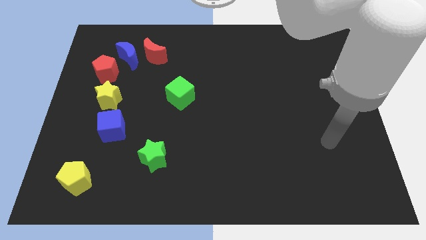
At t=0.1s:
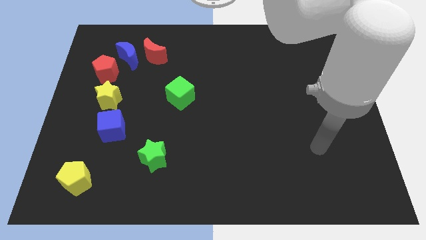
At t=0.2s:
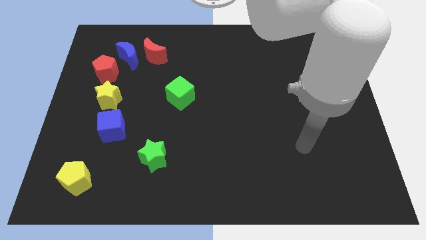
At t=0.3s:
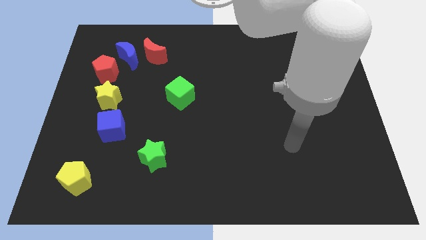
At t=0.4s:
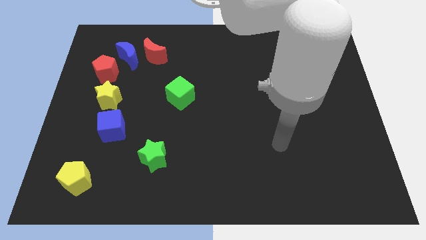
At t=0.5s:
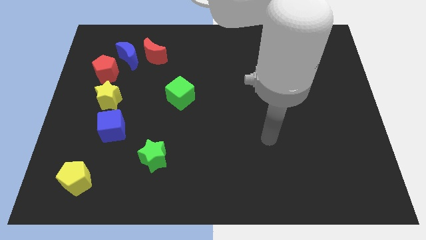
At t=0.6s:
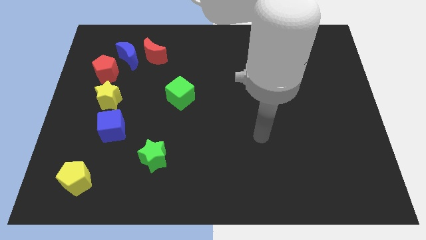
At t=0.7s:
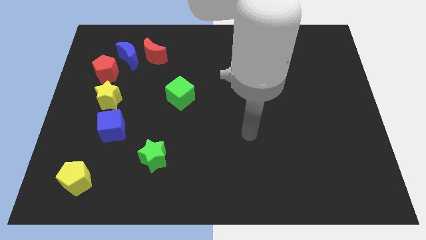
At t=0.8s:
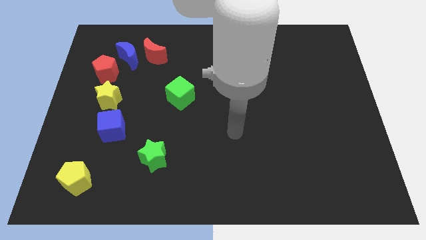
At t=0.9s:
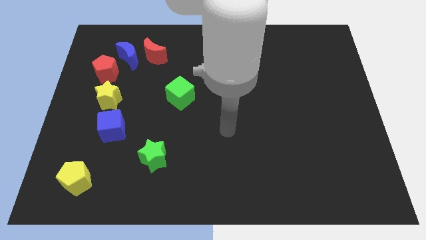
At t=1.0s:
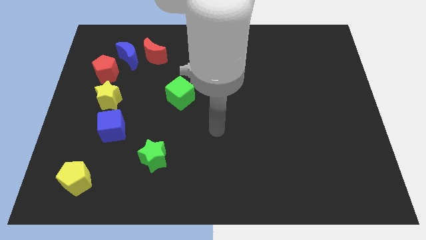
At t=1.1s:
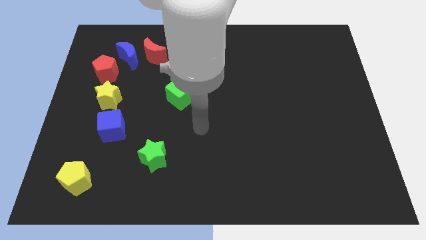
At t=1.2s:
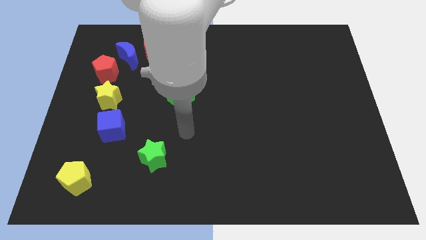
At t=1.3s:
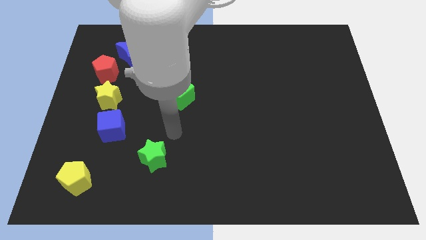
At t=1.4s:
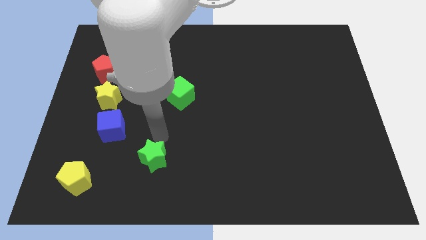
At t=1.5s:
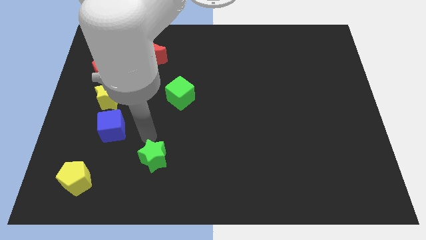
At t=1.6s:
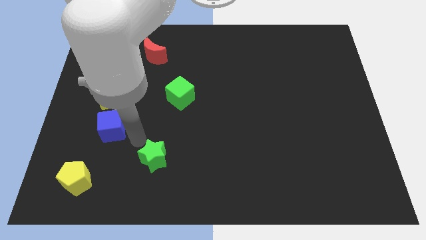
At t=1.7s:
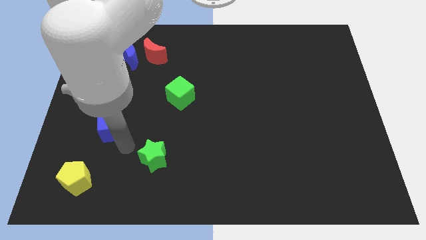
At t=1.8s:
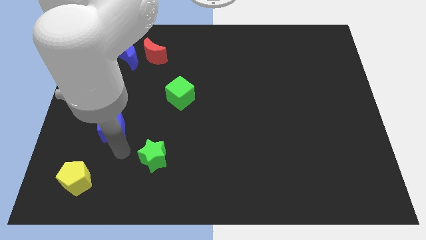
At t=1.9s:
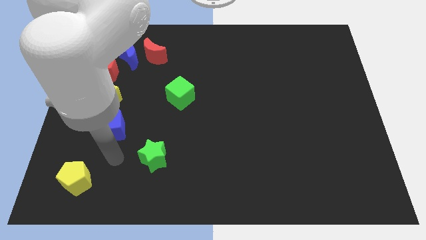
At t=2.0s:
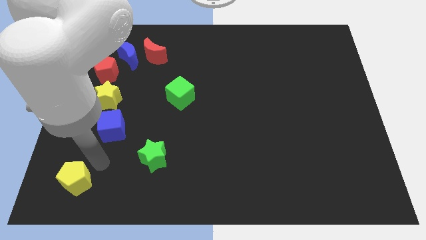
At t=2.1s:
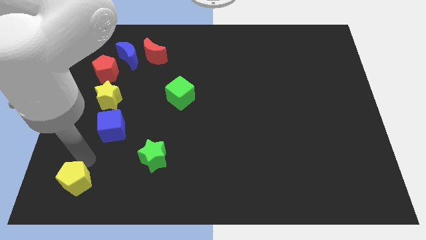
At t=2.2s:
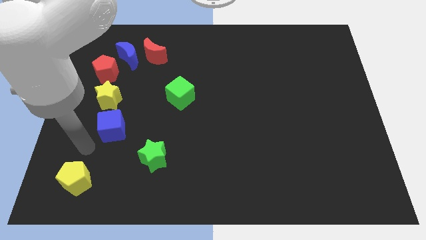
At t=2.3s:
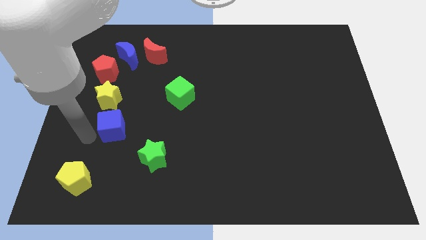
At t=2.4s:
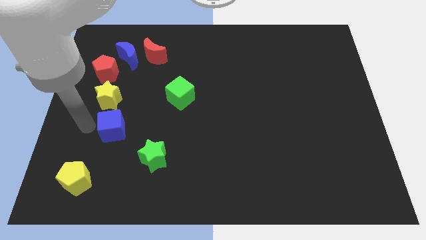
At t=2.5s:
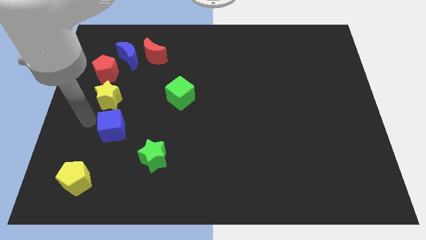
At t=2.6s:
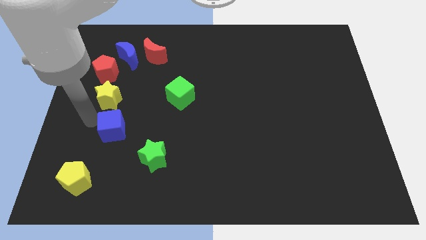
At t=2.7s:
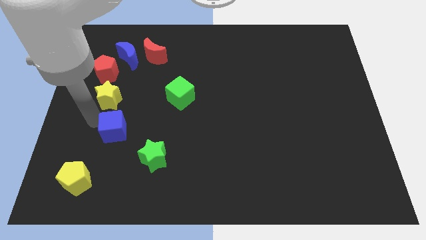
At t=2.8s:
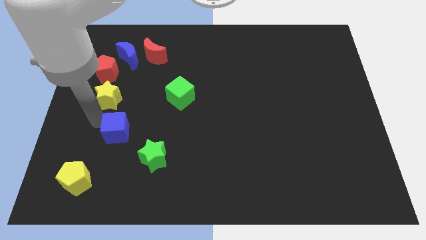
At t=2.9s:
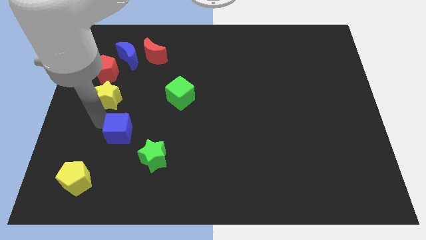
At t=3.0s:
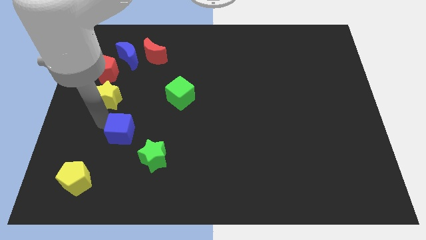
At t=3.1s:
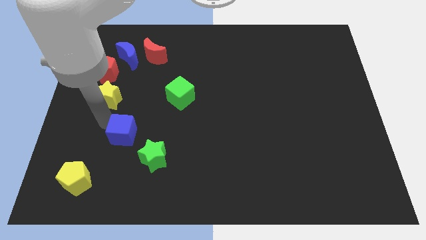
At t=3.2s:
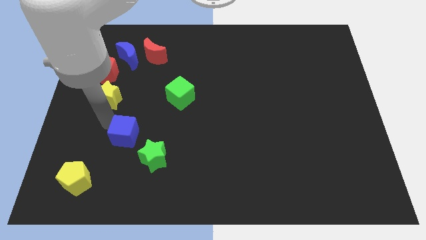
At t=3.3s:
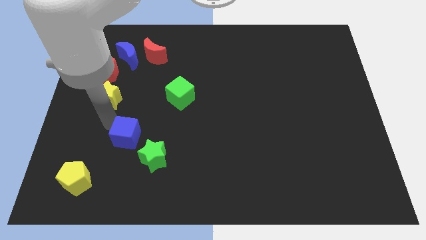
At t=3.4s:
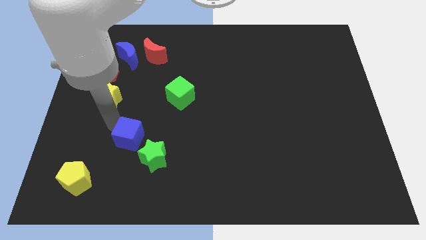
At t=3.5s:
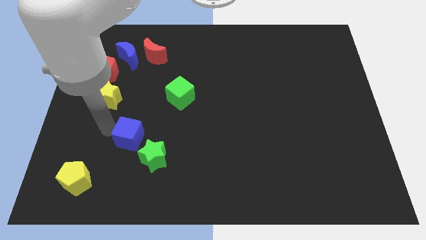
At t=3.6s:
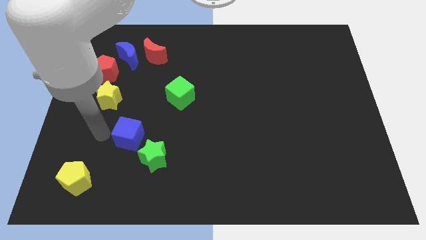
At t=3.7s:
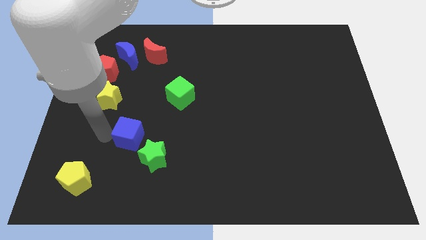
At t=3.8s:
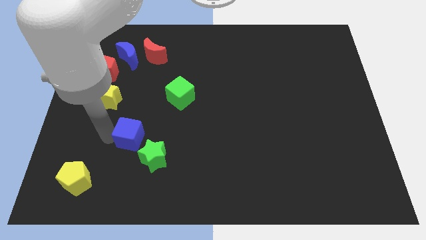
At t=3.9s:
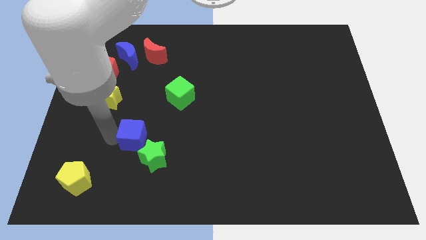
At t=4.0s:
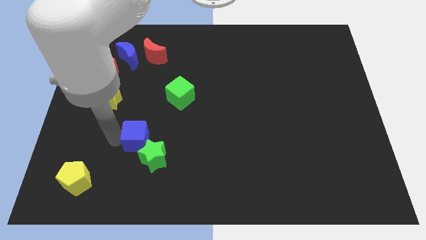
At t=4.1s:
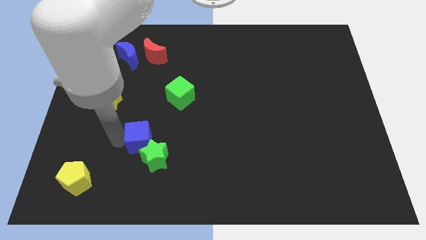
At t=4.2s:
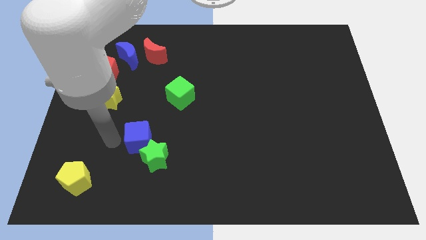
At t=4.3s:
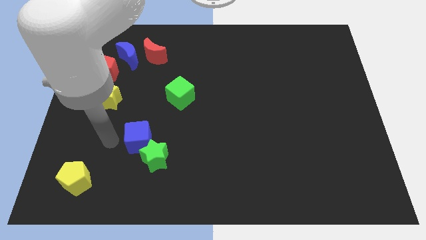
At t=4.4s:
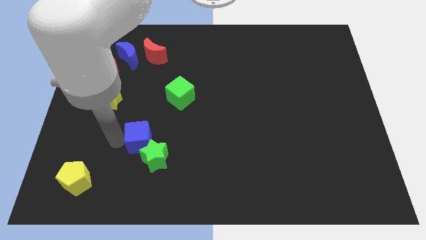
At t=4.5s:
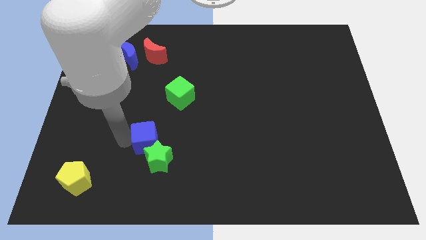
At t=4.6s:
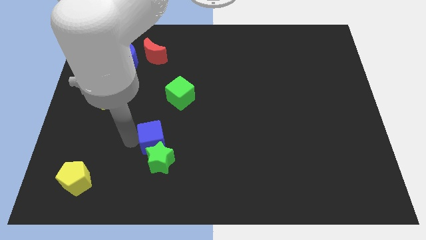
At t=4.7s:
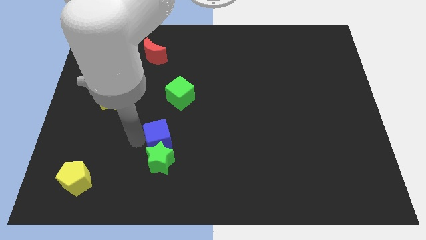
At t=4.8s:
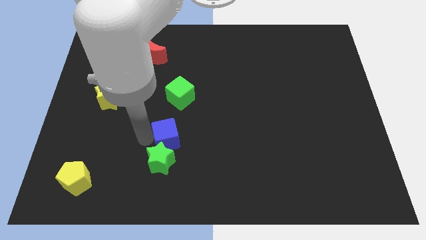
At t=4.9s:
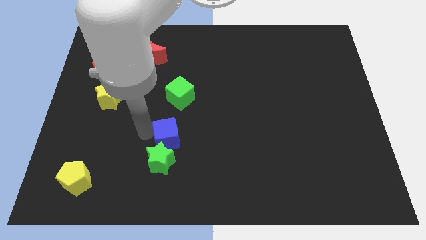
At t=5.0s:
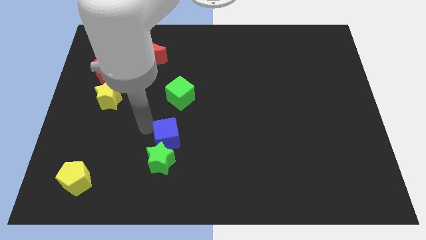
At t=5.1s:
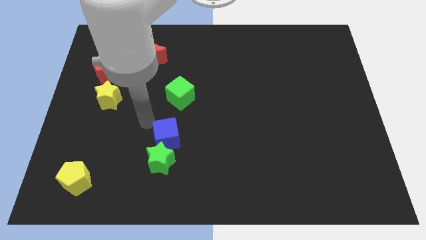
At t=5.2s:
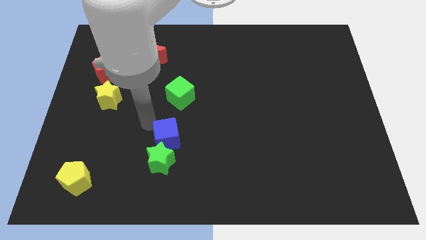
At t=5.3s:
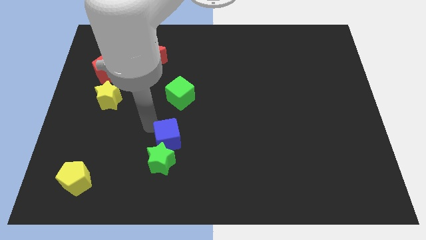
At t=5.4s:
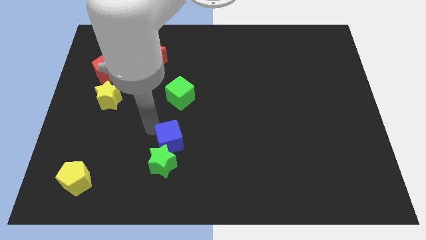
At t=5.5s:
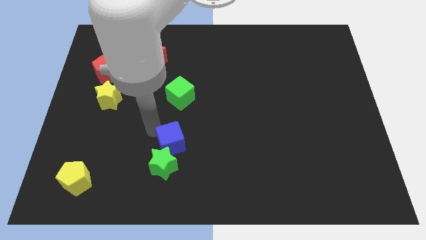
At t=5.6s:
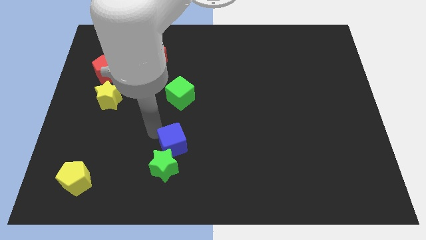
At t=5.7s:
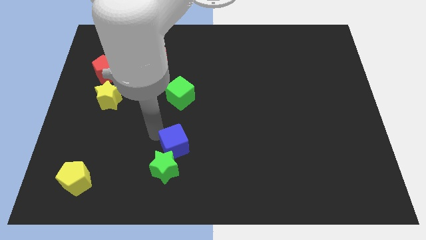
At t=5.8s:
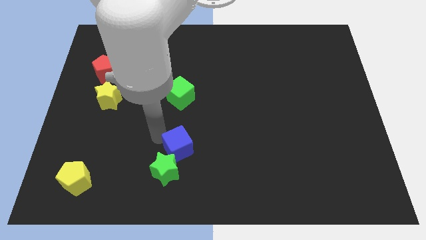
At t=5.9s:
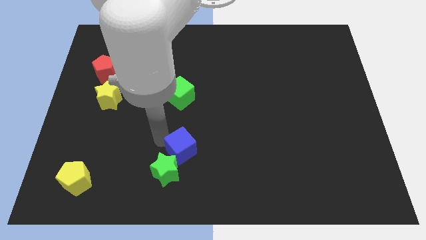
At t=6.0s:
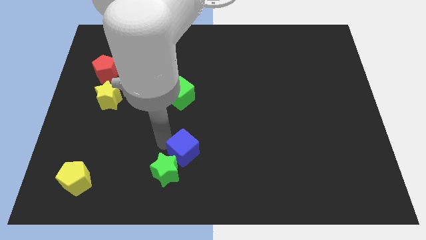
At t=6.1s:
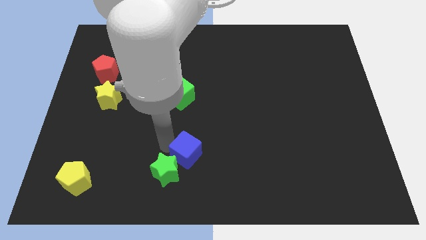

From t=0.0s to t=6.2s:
move the blue cube just right of the green star

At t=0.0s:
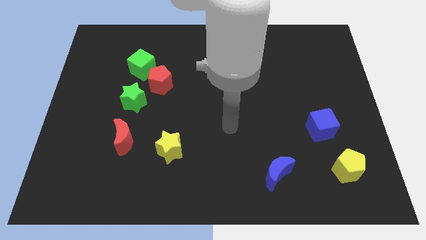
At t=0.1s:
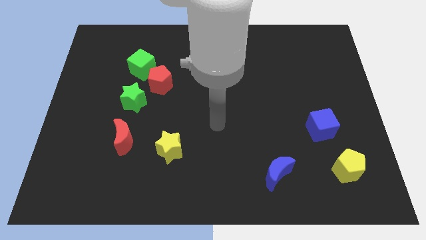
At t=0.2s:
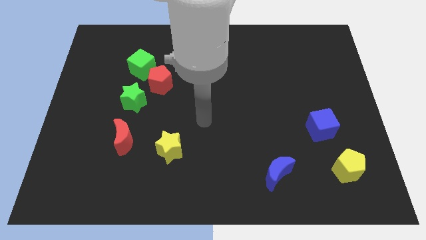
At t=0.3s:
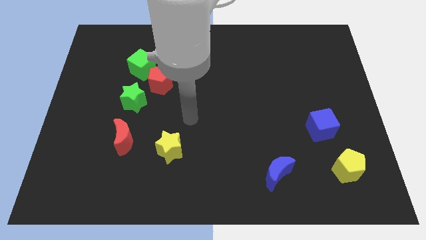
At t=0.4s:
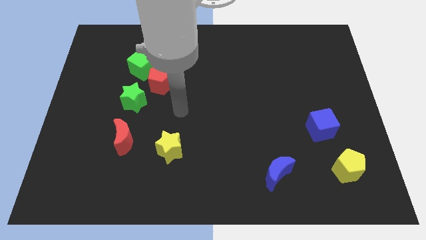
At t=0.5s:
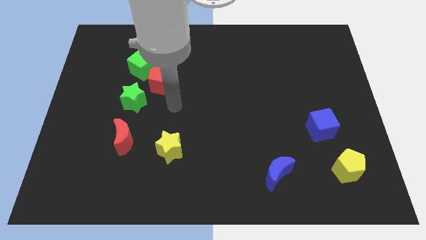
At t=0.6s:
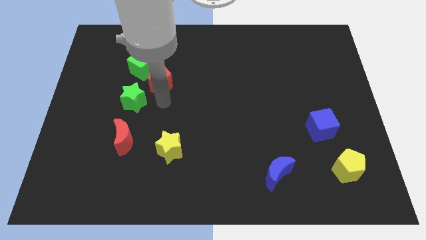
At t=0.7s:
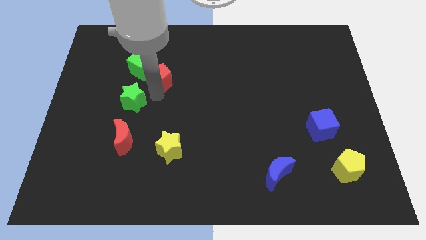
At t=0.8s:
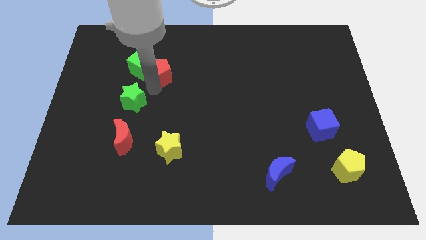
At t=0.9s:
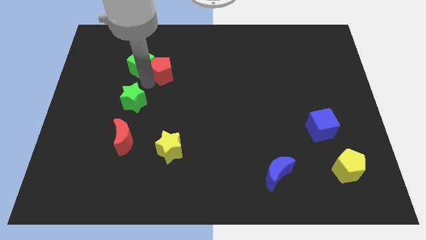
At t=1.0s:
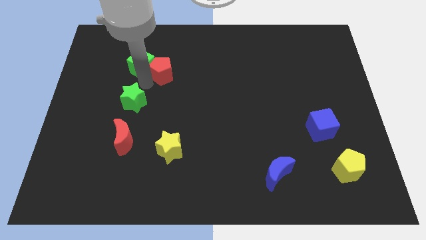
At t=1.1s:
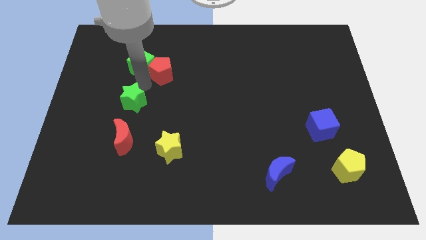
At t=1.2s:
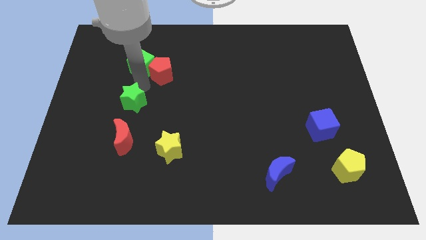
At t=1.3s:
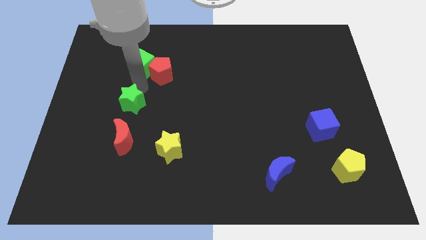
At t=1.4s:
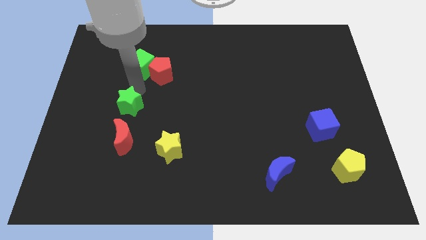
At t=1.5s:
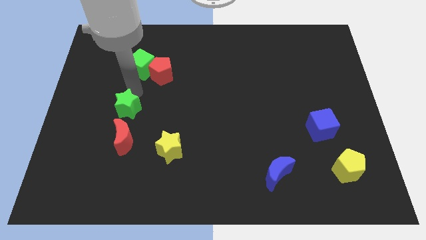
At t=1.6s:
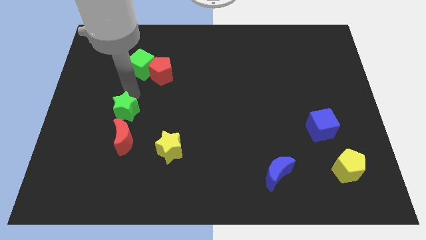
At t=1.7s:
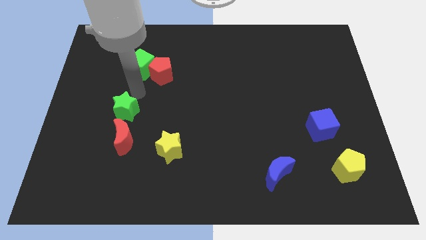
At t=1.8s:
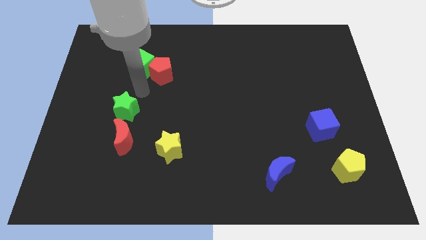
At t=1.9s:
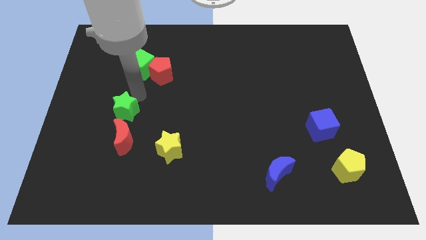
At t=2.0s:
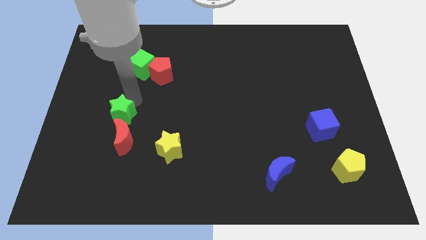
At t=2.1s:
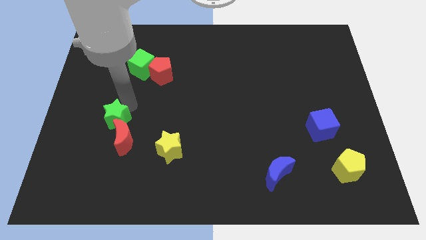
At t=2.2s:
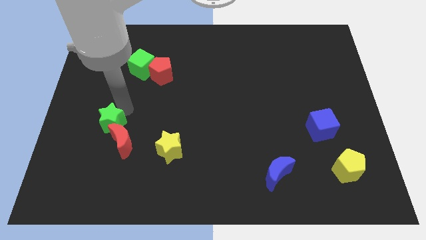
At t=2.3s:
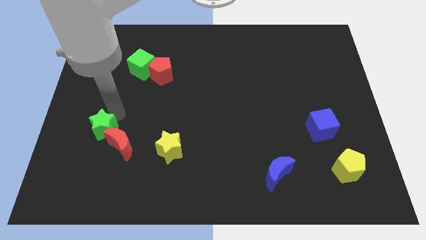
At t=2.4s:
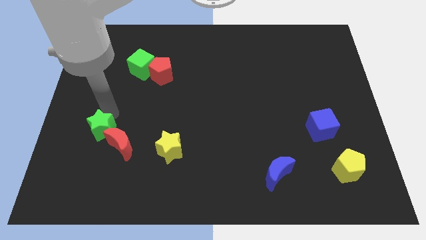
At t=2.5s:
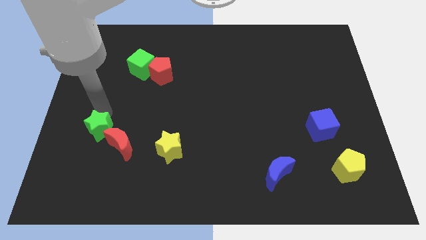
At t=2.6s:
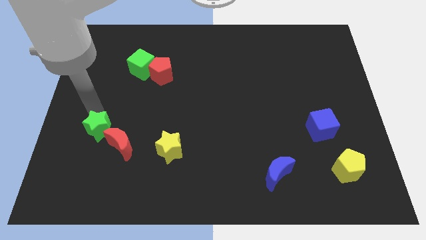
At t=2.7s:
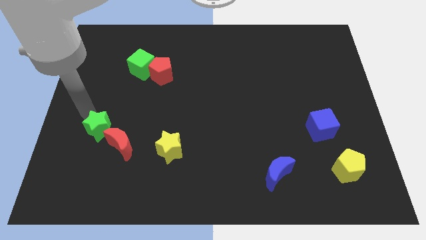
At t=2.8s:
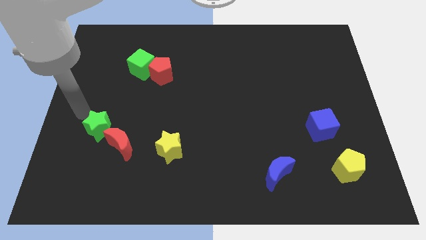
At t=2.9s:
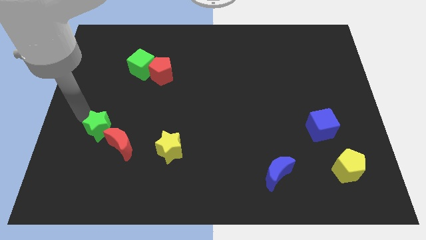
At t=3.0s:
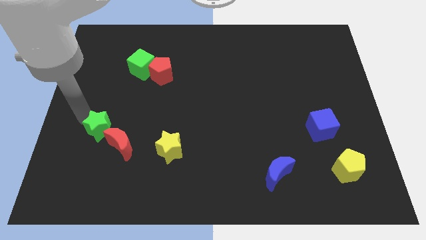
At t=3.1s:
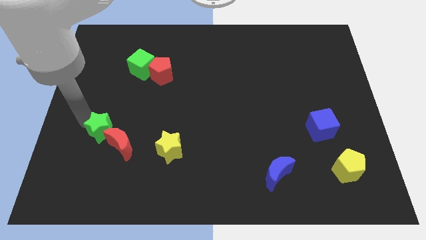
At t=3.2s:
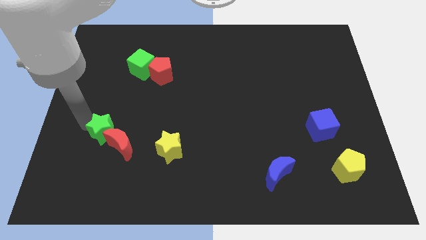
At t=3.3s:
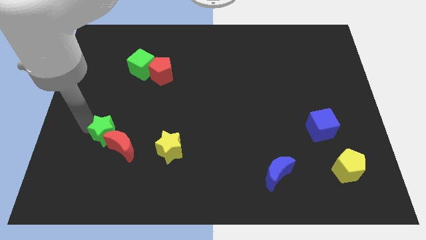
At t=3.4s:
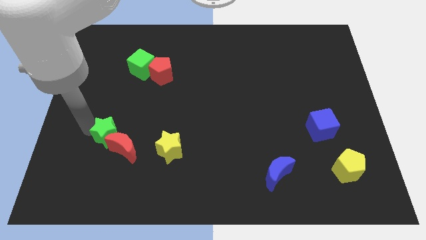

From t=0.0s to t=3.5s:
put the green star just left of the yellow star
